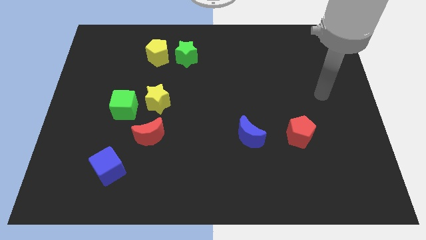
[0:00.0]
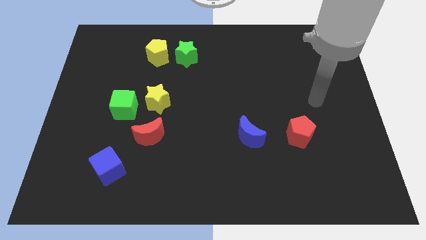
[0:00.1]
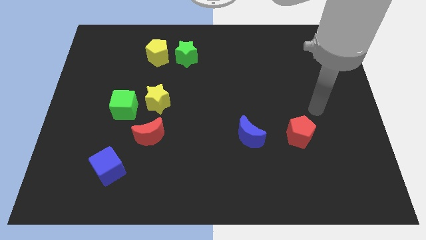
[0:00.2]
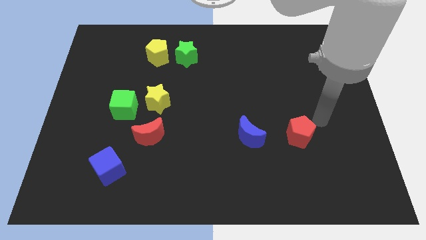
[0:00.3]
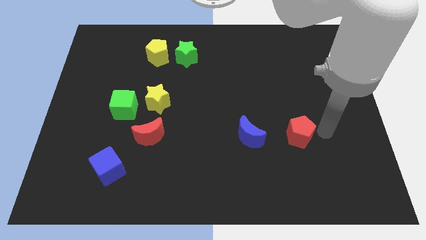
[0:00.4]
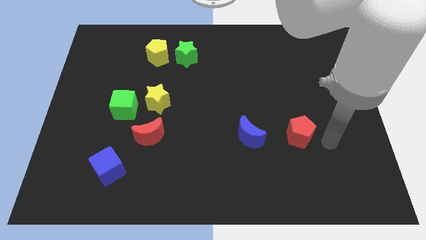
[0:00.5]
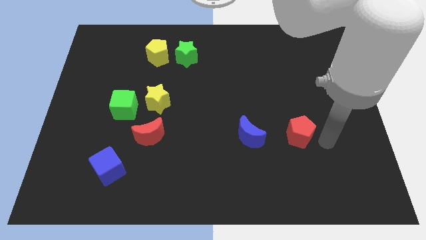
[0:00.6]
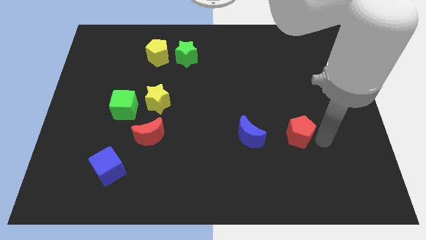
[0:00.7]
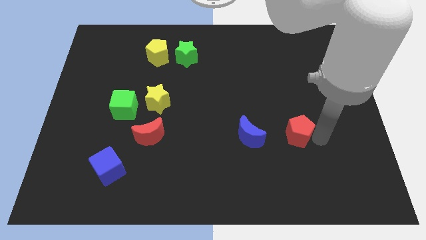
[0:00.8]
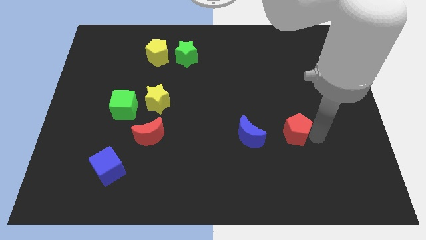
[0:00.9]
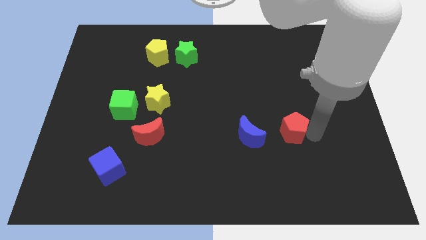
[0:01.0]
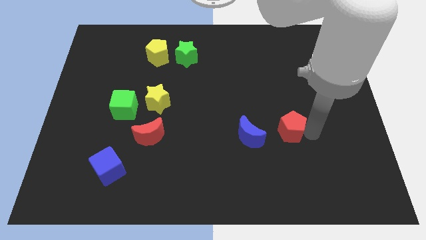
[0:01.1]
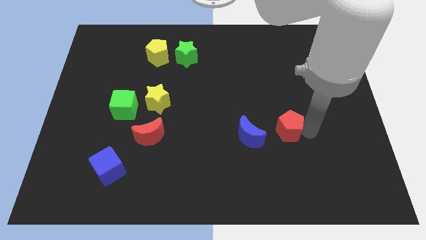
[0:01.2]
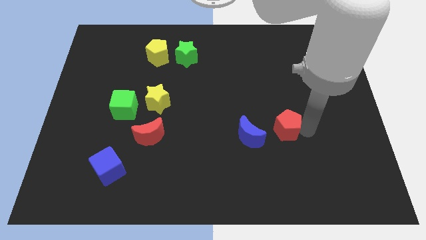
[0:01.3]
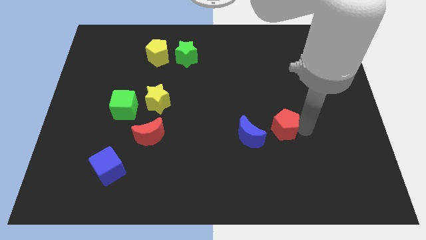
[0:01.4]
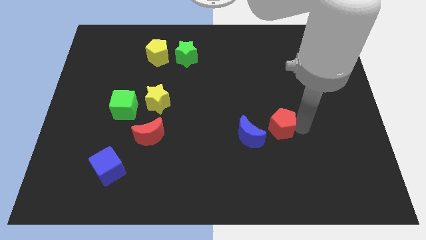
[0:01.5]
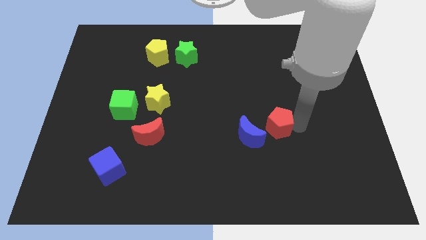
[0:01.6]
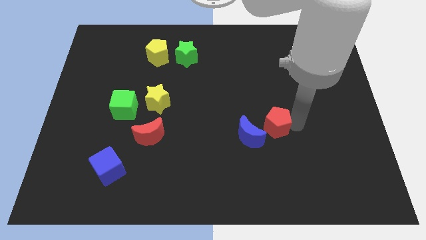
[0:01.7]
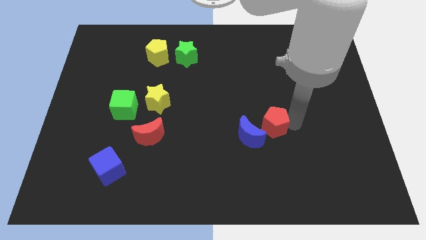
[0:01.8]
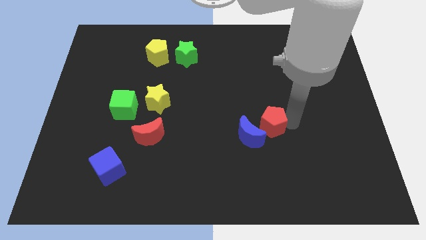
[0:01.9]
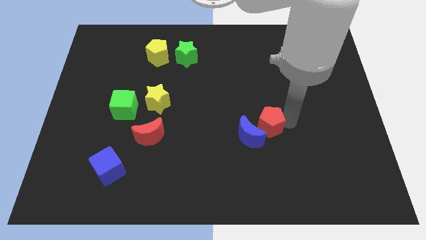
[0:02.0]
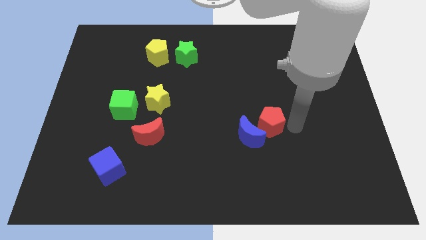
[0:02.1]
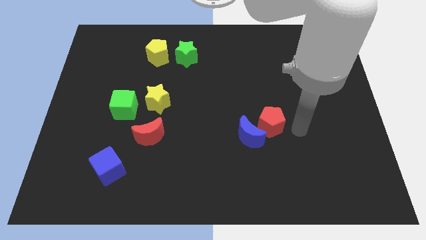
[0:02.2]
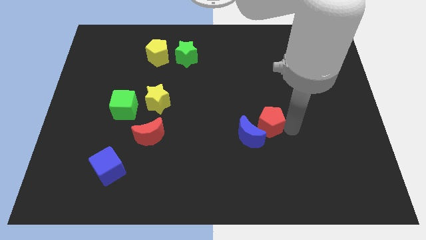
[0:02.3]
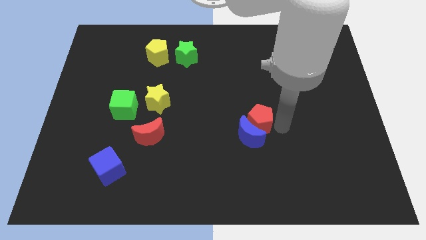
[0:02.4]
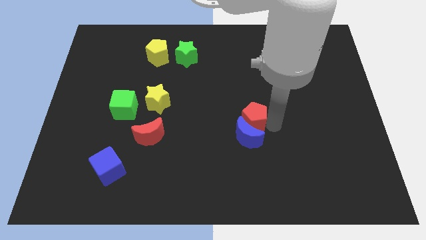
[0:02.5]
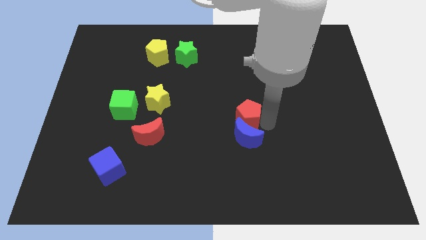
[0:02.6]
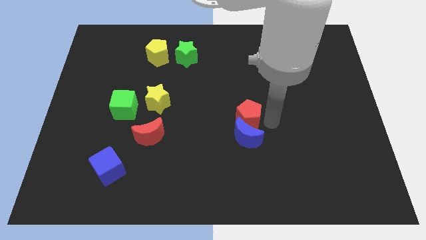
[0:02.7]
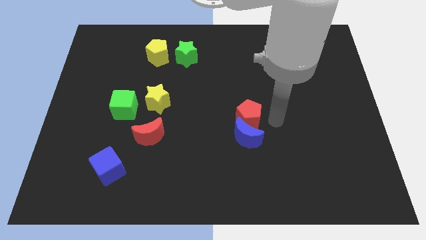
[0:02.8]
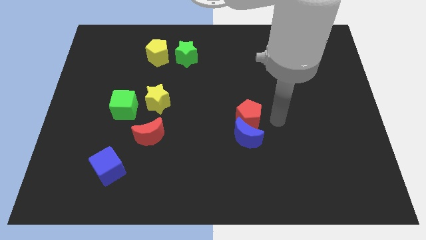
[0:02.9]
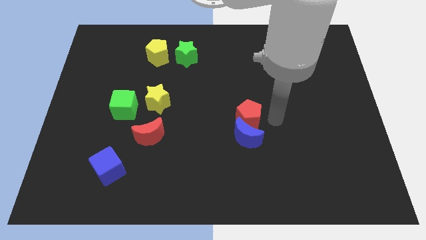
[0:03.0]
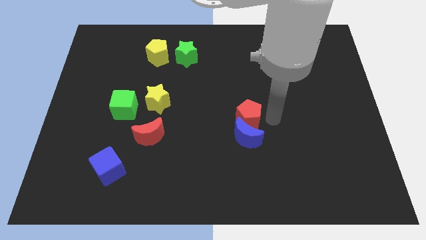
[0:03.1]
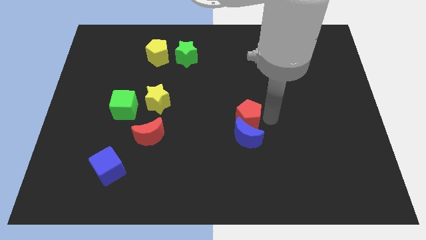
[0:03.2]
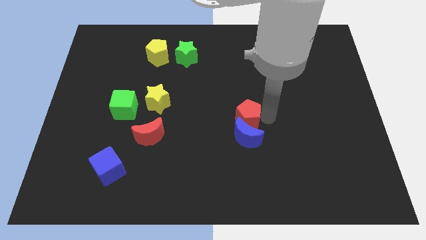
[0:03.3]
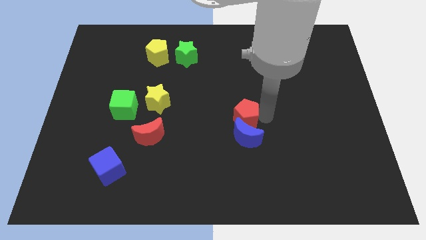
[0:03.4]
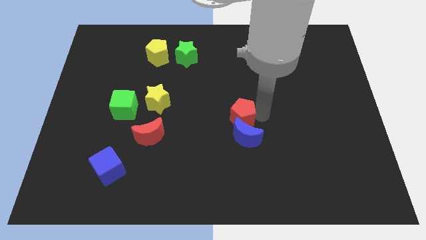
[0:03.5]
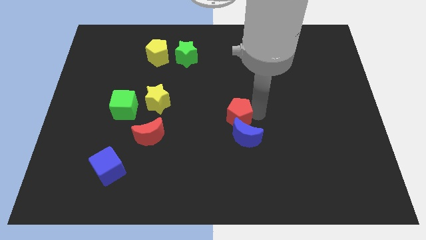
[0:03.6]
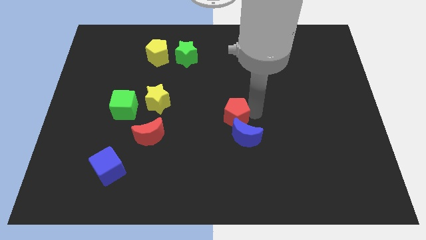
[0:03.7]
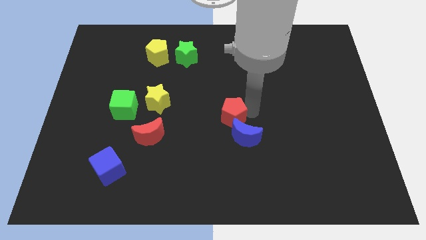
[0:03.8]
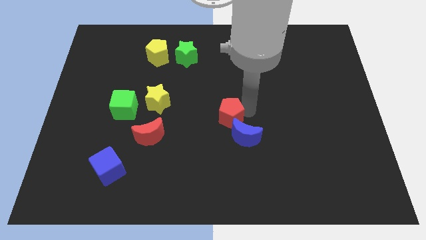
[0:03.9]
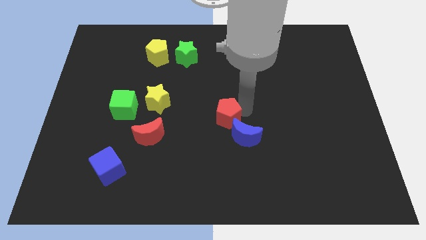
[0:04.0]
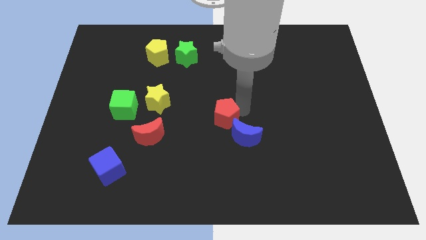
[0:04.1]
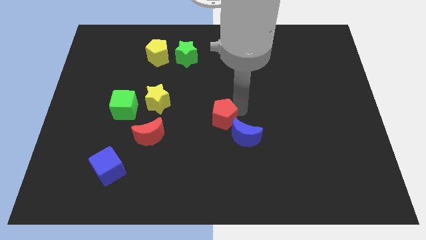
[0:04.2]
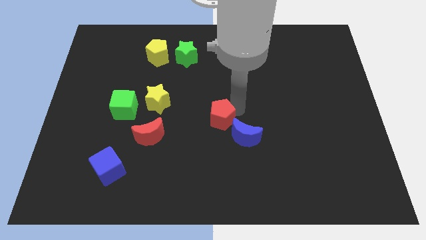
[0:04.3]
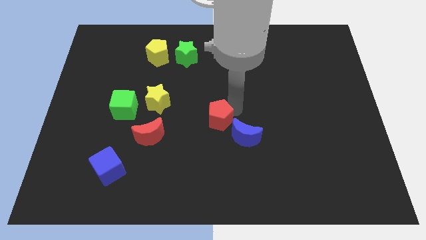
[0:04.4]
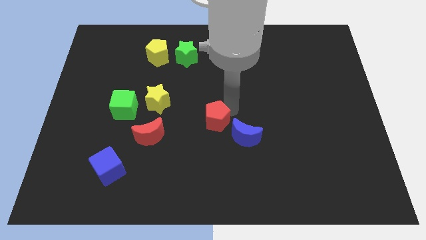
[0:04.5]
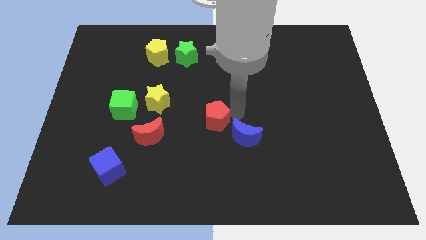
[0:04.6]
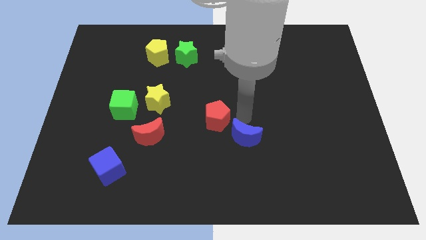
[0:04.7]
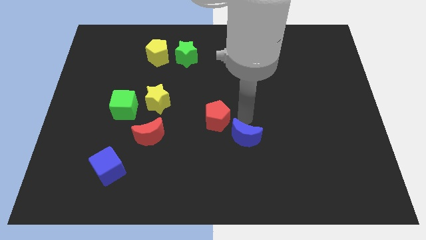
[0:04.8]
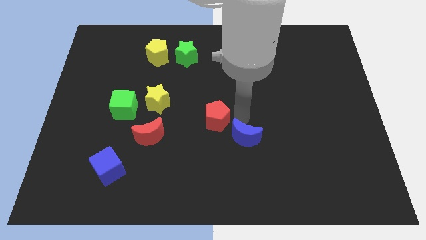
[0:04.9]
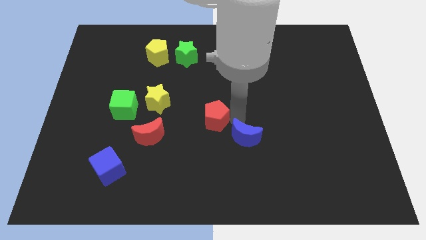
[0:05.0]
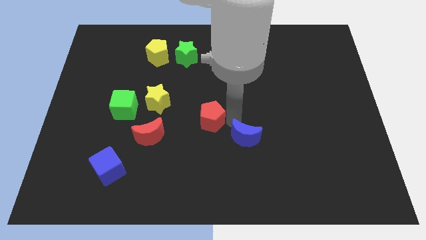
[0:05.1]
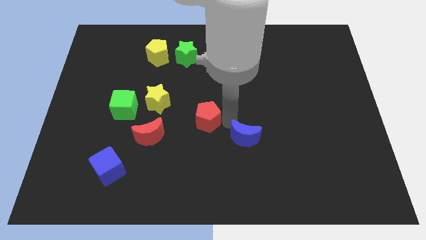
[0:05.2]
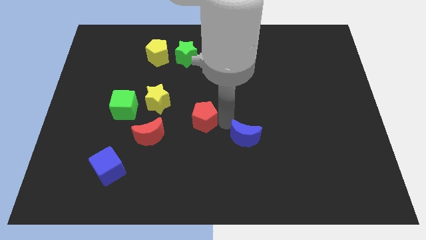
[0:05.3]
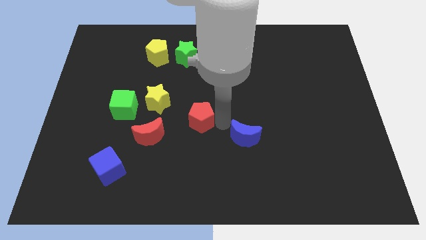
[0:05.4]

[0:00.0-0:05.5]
push the red pentagon to the bottom right of the yellow star

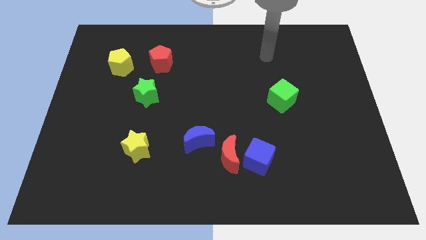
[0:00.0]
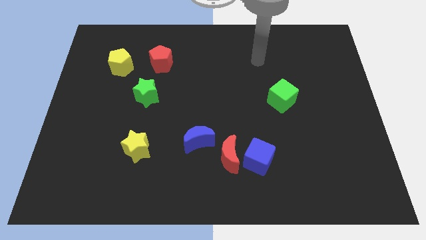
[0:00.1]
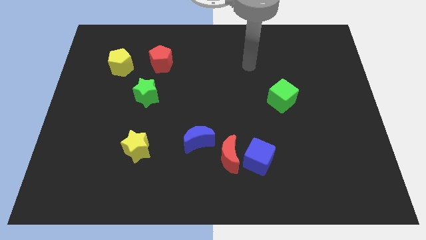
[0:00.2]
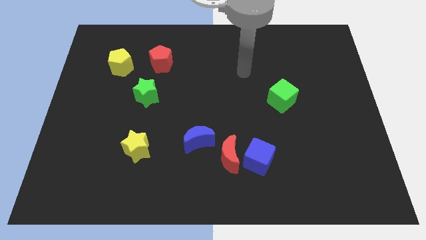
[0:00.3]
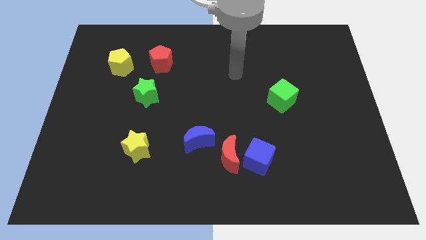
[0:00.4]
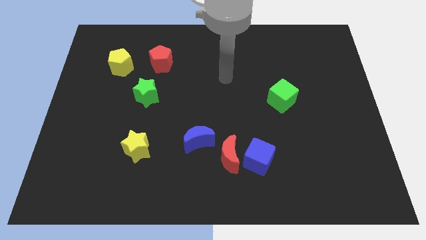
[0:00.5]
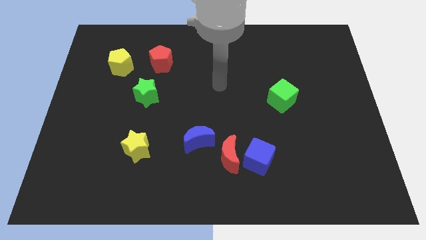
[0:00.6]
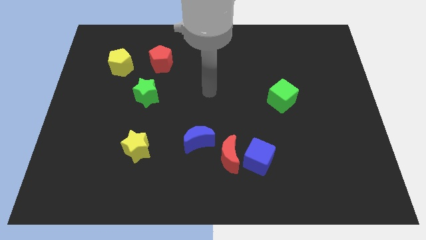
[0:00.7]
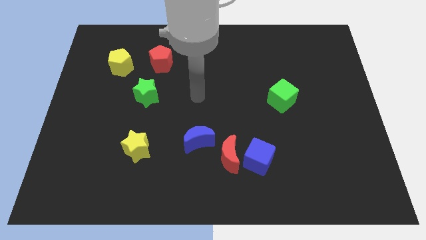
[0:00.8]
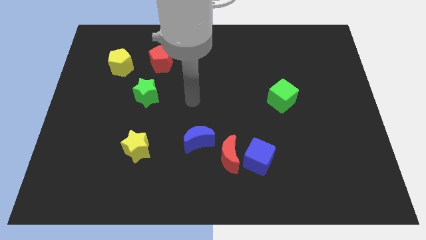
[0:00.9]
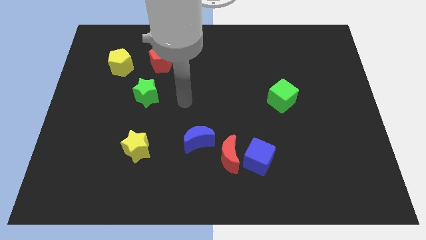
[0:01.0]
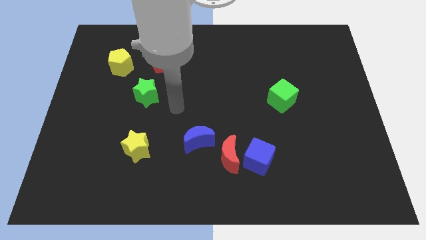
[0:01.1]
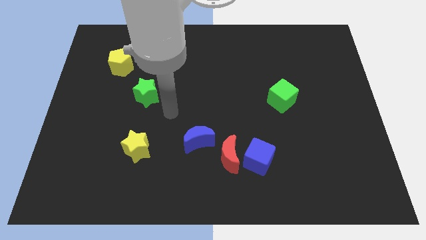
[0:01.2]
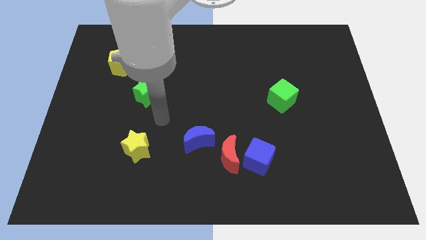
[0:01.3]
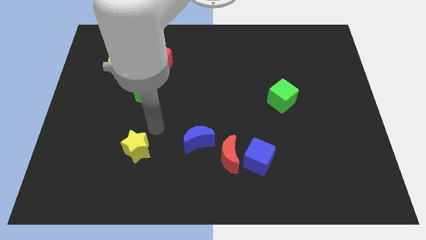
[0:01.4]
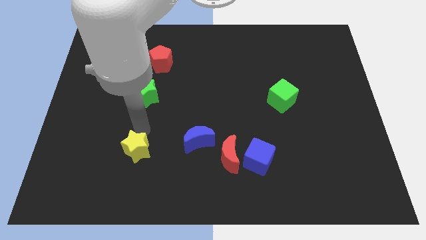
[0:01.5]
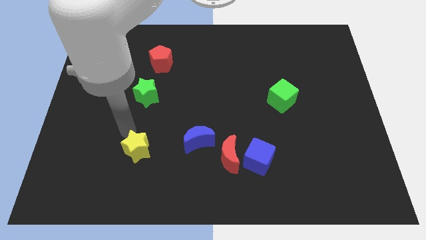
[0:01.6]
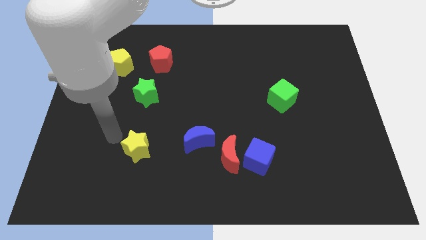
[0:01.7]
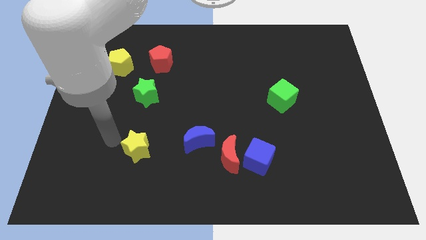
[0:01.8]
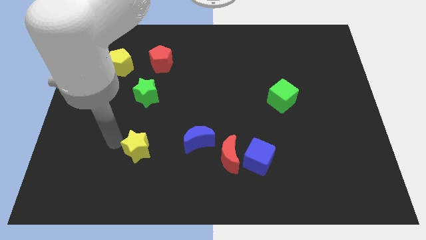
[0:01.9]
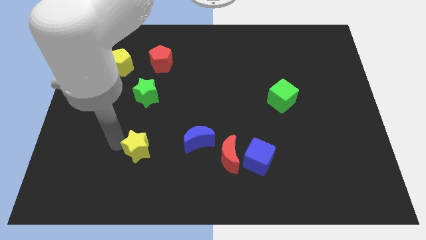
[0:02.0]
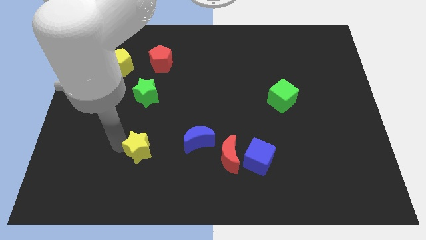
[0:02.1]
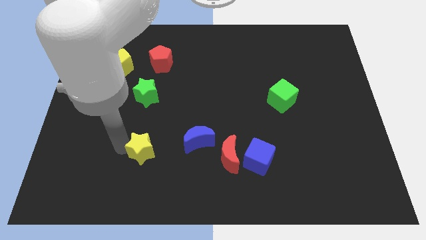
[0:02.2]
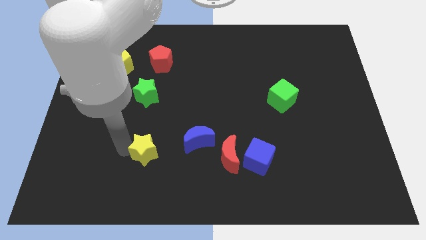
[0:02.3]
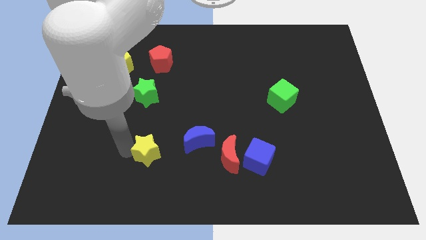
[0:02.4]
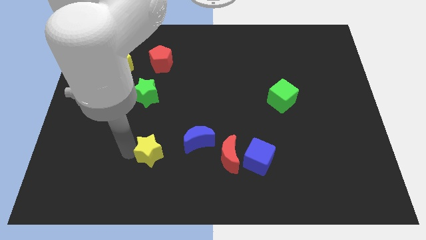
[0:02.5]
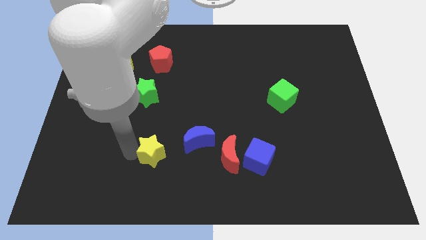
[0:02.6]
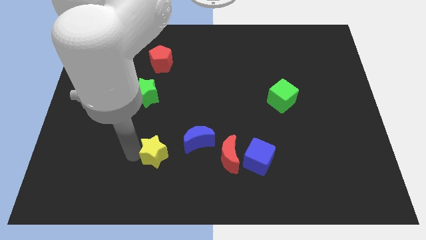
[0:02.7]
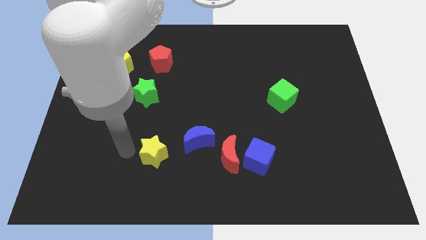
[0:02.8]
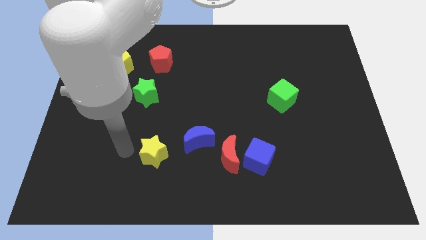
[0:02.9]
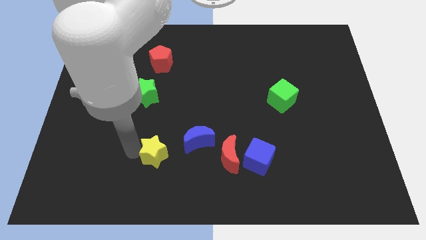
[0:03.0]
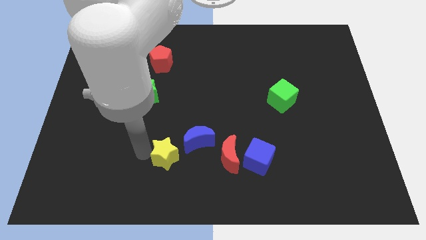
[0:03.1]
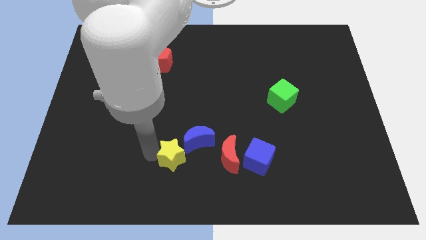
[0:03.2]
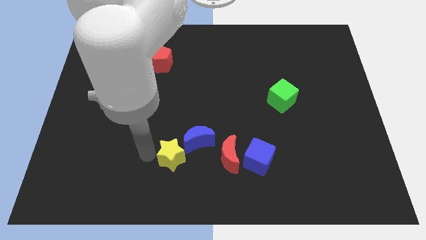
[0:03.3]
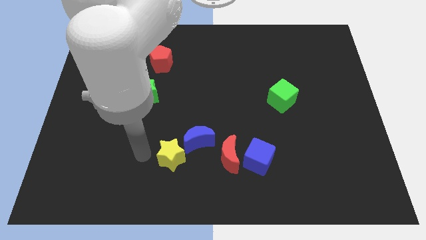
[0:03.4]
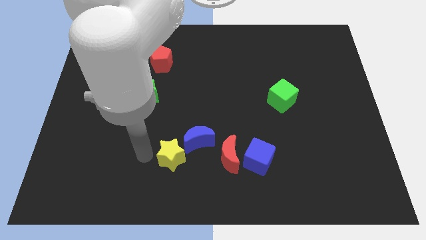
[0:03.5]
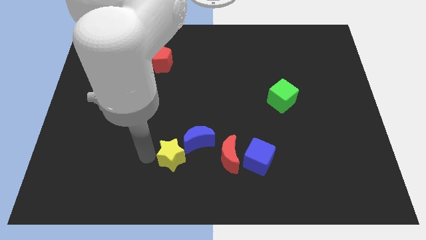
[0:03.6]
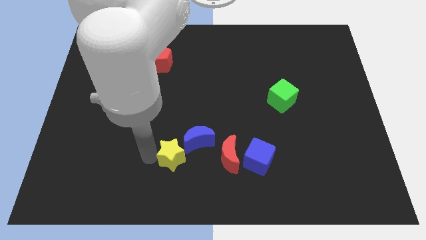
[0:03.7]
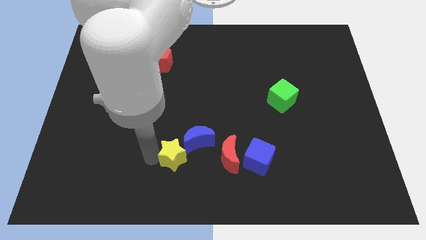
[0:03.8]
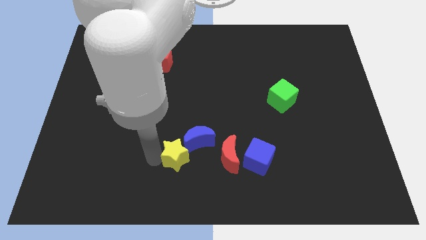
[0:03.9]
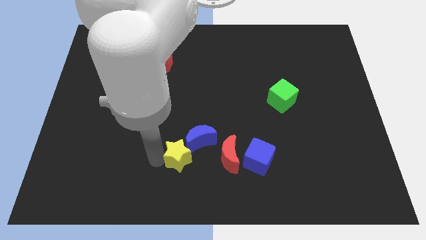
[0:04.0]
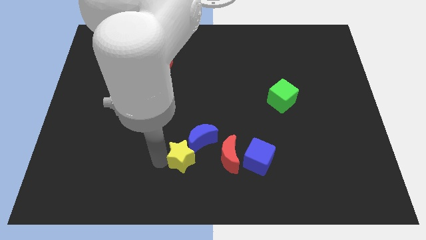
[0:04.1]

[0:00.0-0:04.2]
slide the yellow star to the left side of the blue cube
